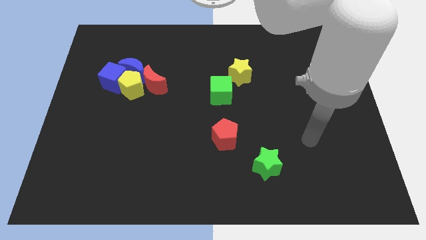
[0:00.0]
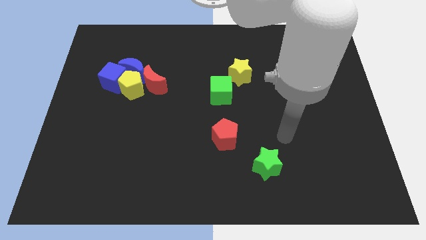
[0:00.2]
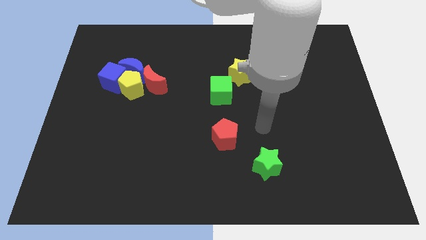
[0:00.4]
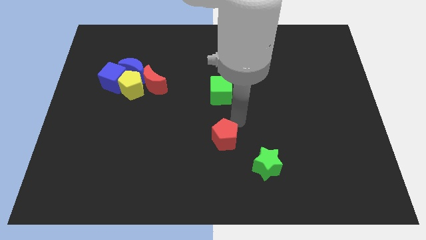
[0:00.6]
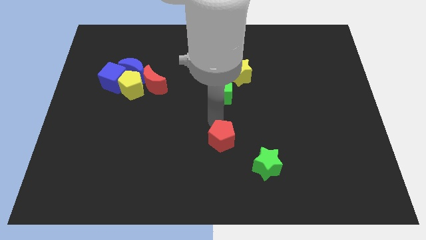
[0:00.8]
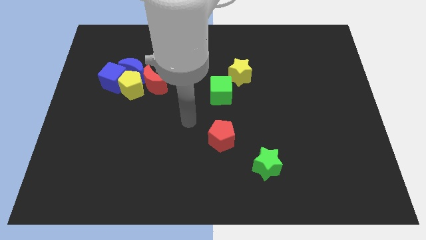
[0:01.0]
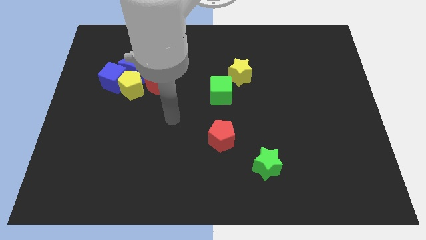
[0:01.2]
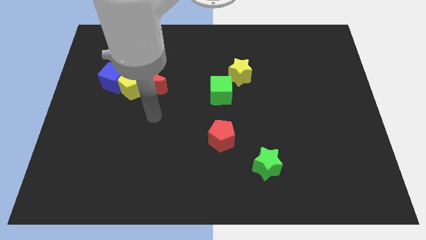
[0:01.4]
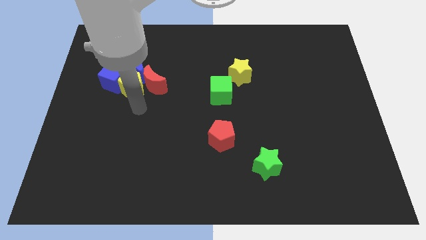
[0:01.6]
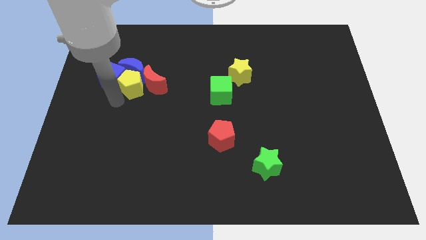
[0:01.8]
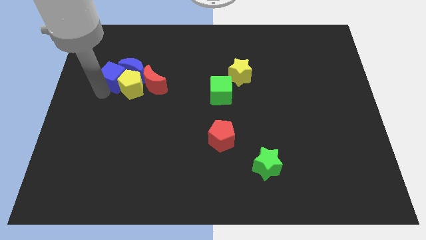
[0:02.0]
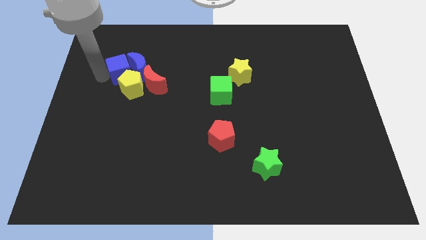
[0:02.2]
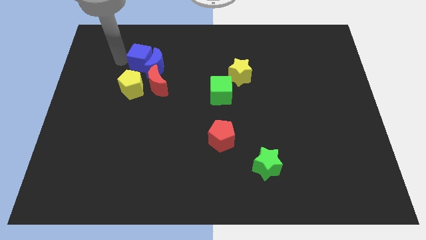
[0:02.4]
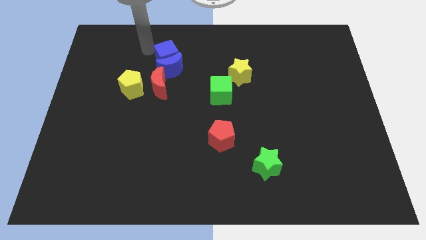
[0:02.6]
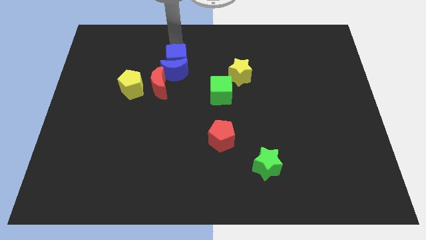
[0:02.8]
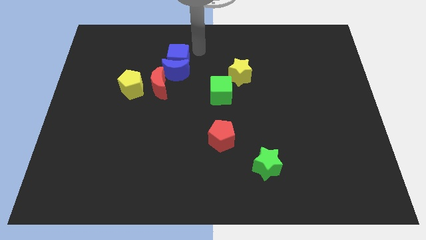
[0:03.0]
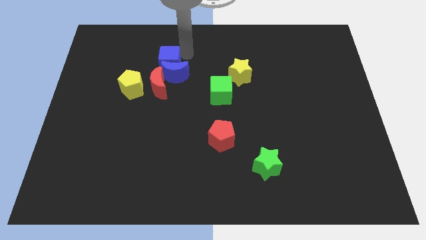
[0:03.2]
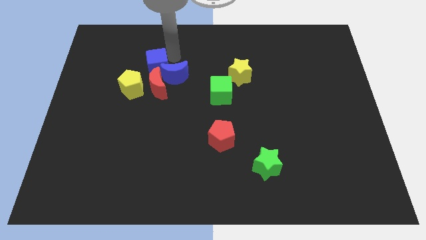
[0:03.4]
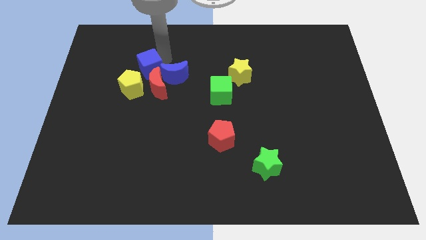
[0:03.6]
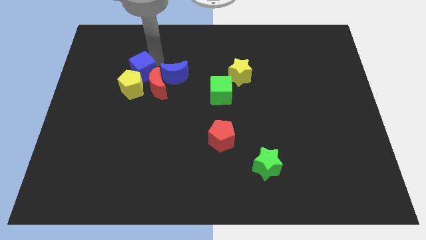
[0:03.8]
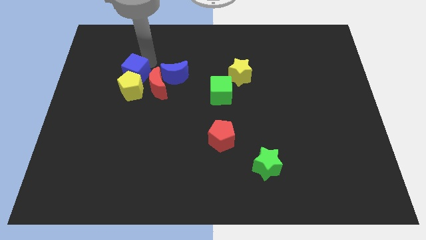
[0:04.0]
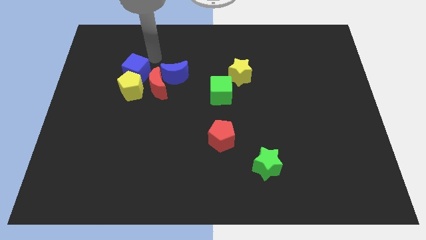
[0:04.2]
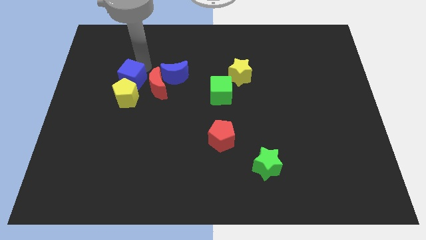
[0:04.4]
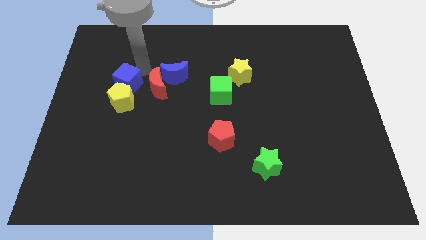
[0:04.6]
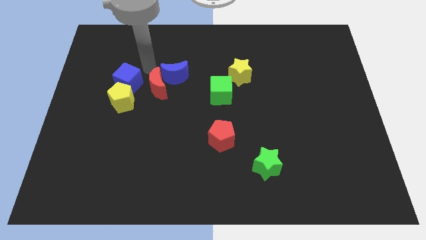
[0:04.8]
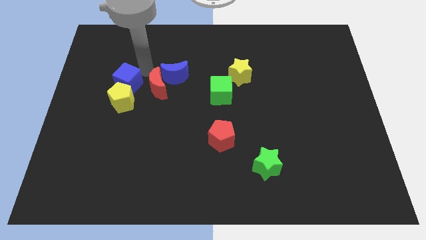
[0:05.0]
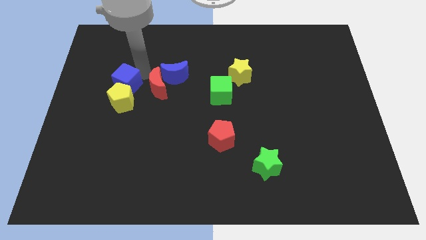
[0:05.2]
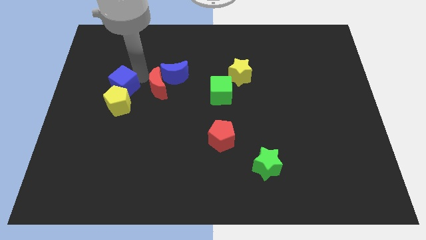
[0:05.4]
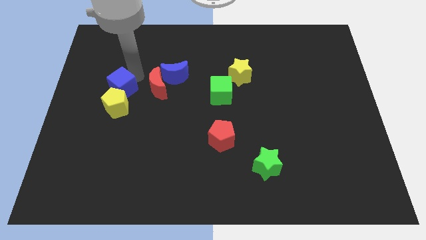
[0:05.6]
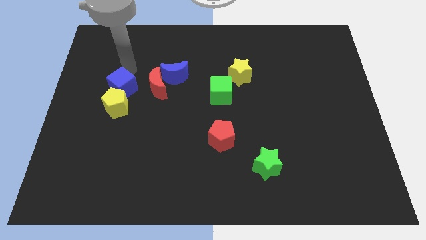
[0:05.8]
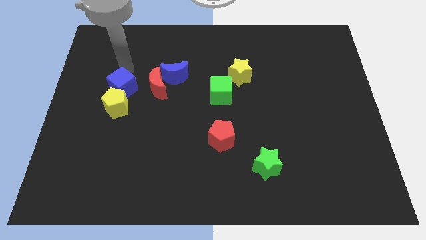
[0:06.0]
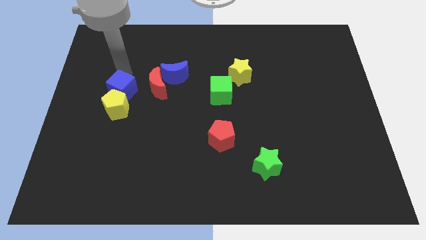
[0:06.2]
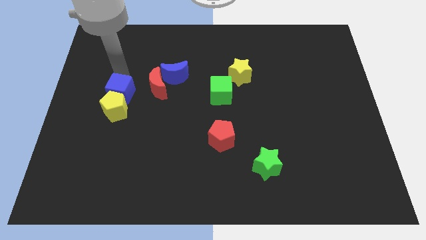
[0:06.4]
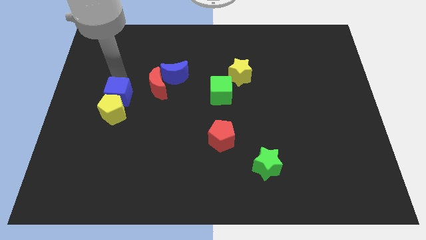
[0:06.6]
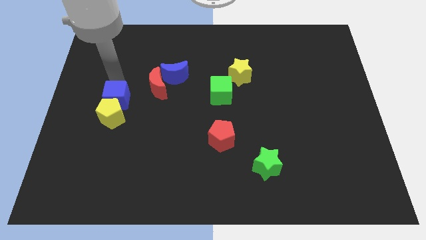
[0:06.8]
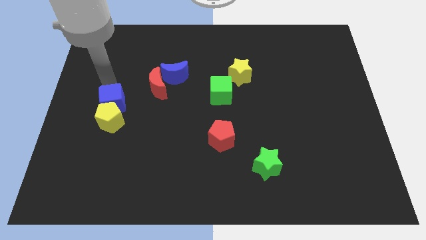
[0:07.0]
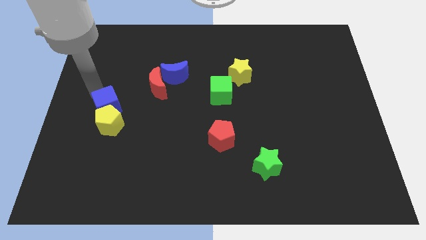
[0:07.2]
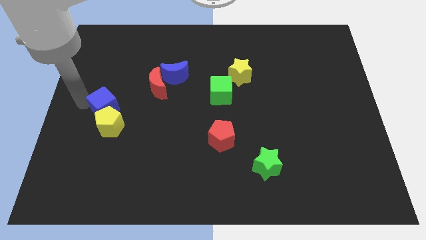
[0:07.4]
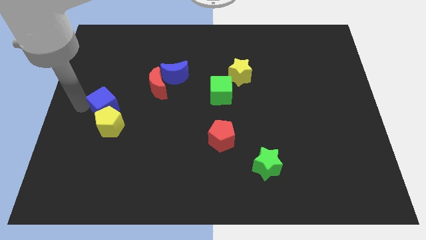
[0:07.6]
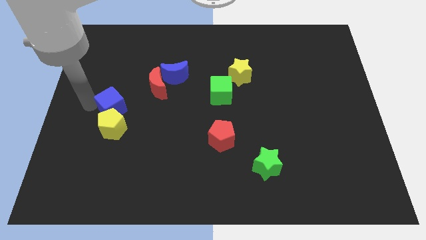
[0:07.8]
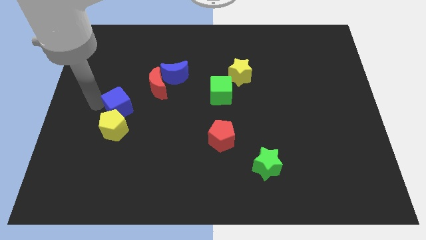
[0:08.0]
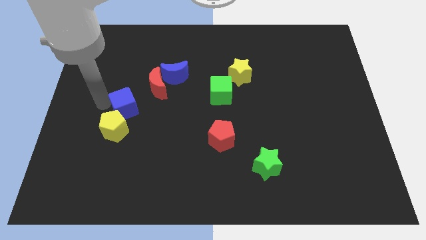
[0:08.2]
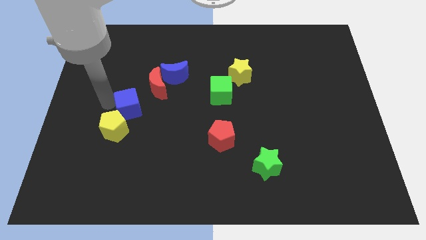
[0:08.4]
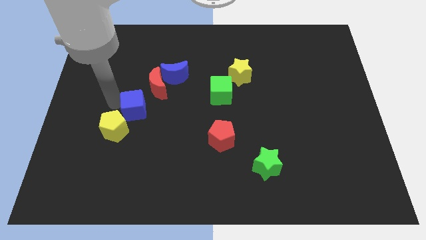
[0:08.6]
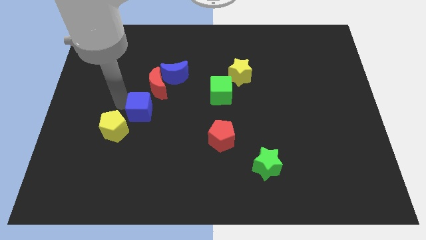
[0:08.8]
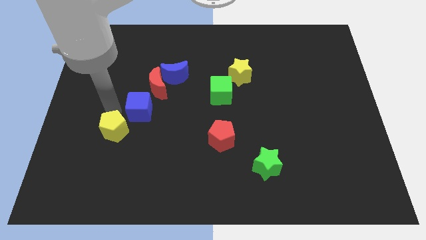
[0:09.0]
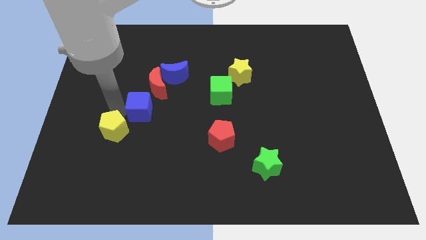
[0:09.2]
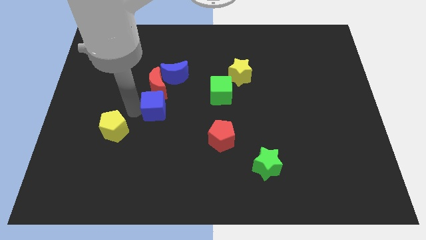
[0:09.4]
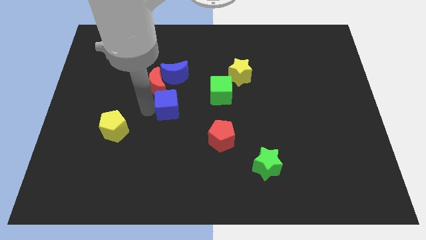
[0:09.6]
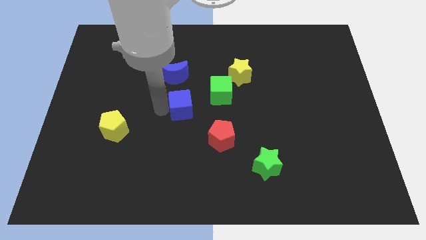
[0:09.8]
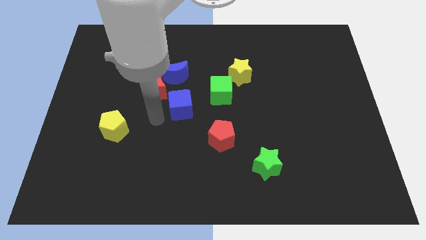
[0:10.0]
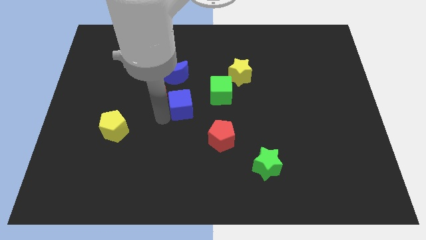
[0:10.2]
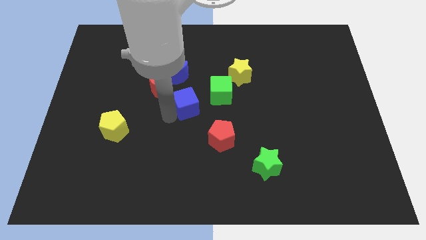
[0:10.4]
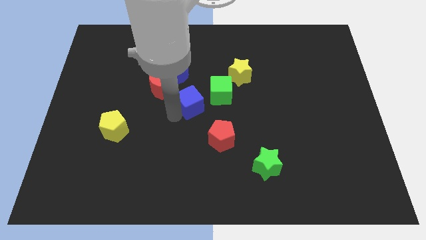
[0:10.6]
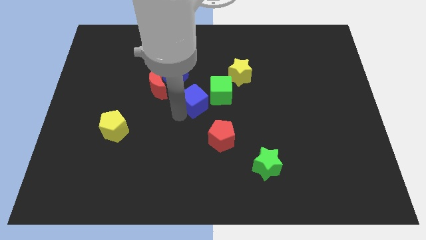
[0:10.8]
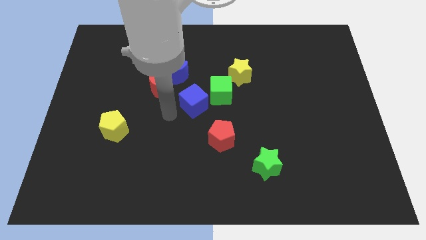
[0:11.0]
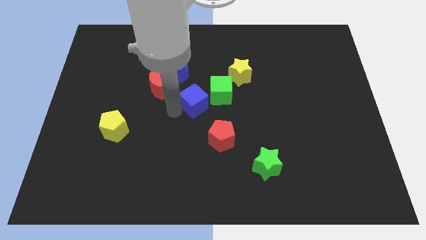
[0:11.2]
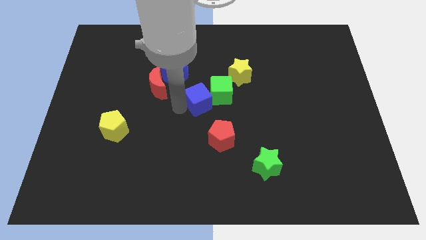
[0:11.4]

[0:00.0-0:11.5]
move the blue cube to the green cube

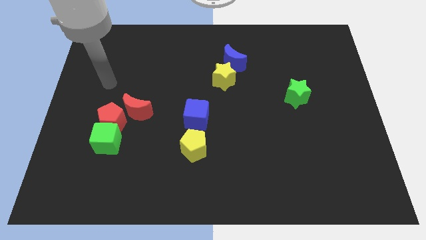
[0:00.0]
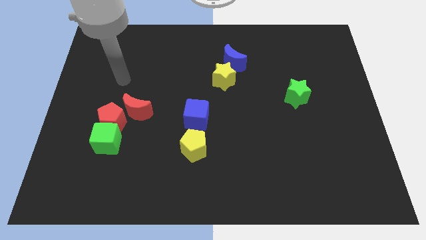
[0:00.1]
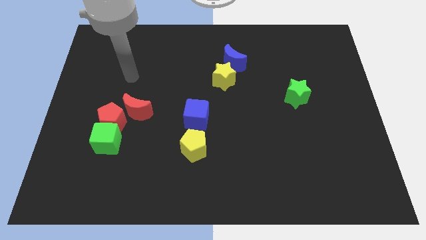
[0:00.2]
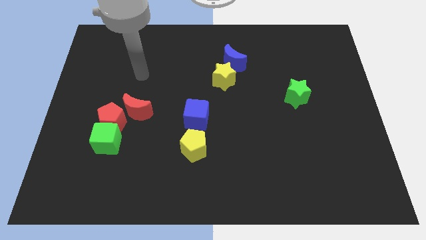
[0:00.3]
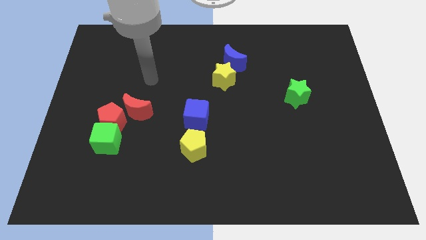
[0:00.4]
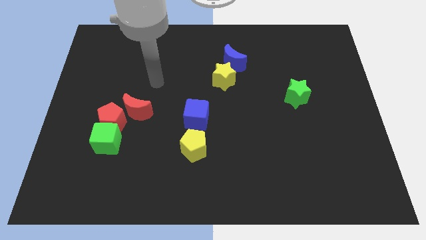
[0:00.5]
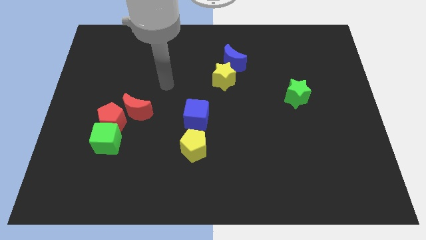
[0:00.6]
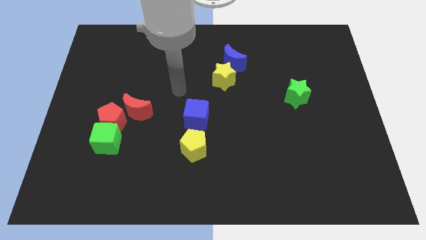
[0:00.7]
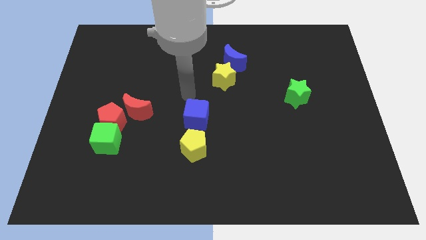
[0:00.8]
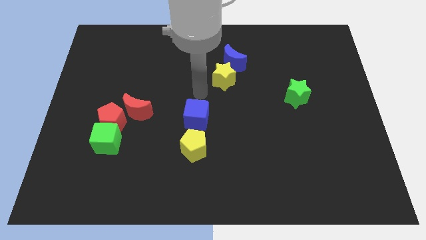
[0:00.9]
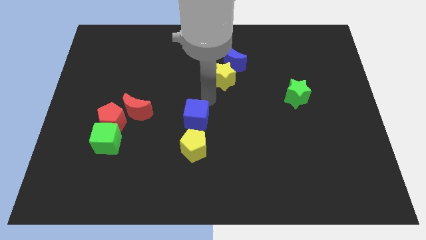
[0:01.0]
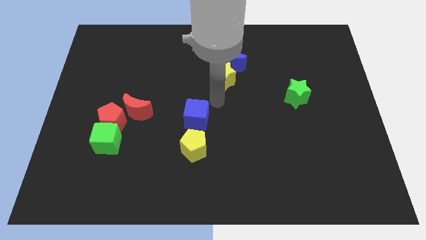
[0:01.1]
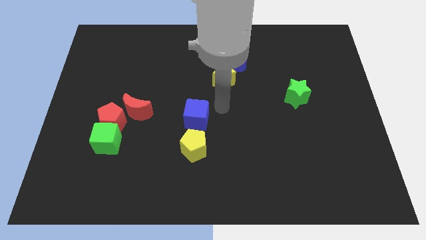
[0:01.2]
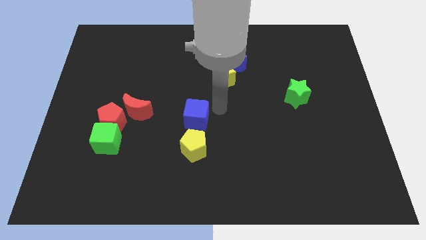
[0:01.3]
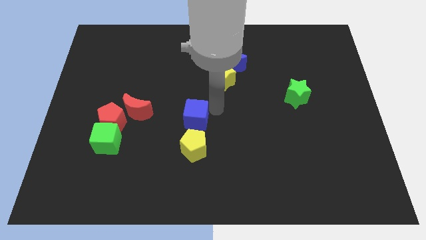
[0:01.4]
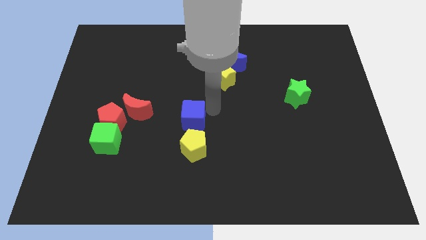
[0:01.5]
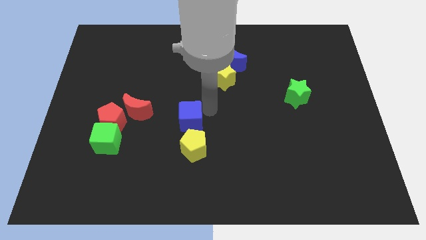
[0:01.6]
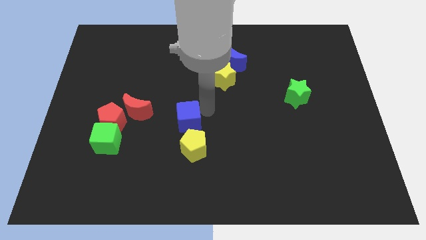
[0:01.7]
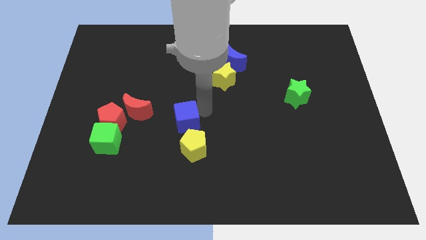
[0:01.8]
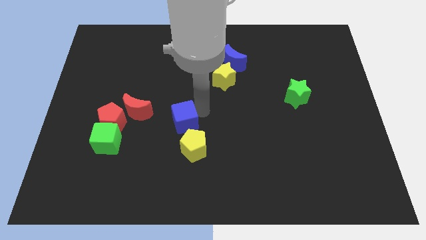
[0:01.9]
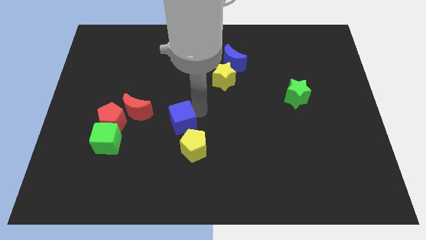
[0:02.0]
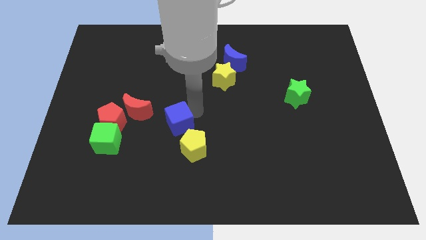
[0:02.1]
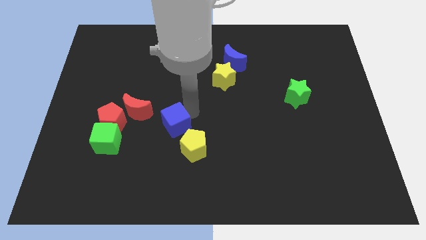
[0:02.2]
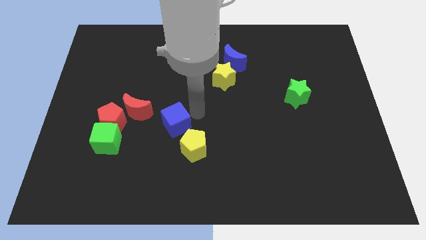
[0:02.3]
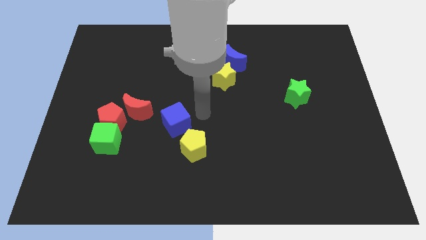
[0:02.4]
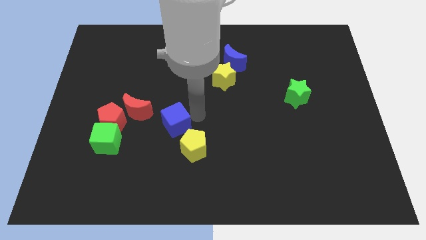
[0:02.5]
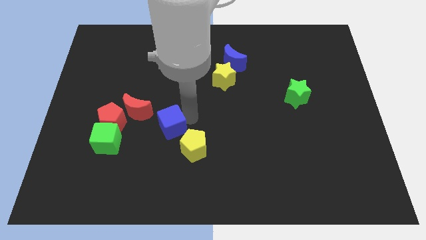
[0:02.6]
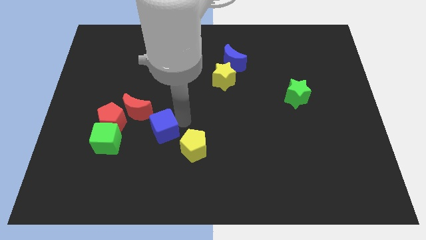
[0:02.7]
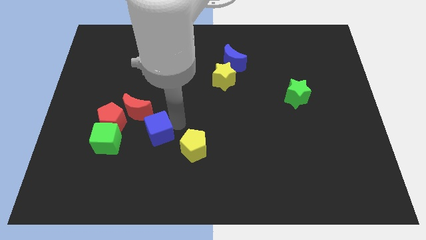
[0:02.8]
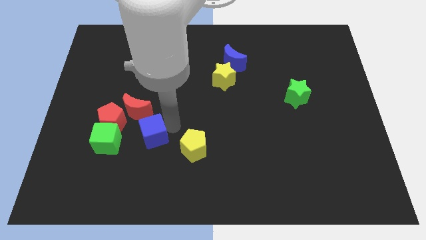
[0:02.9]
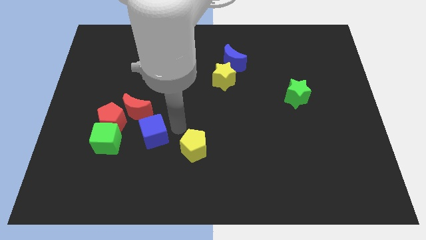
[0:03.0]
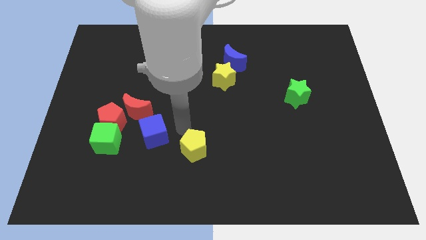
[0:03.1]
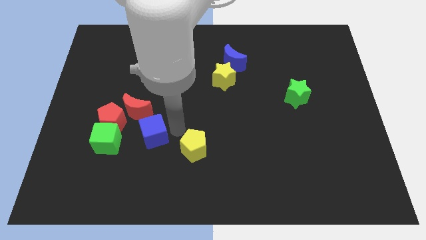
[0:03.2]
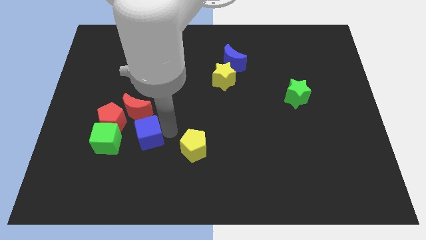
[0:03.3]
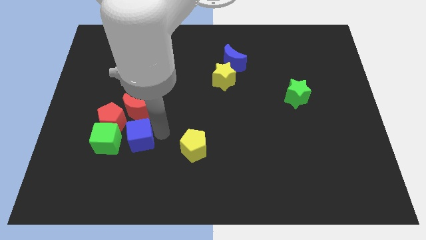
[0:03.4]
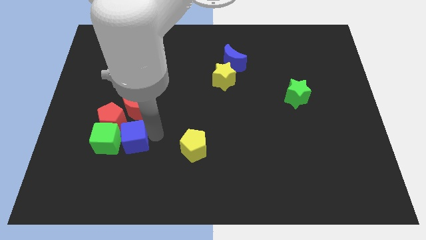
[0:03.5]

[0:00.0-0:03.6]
move the blue cube next to the green cube
